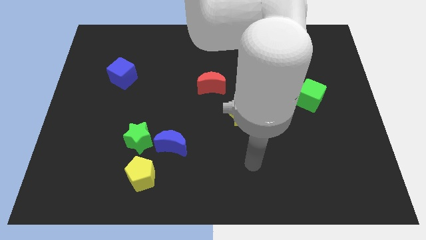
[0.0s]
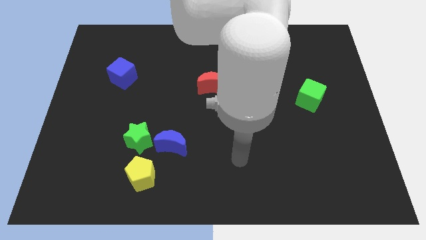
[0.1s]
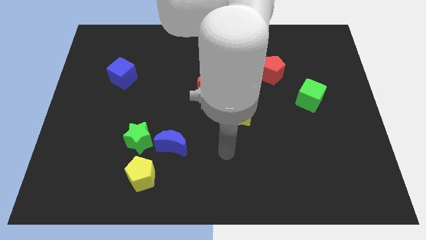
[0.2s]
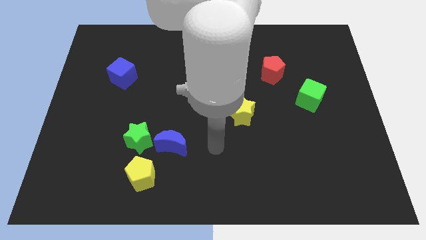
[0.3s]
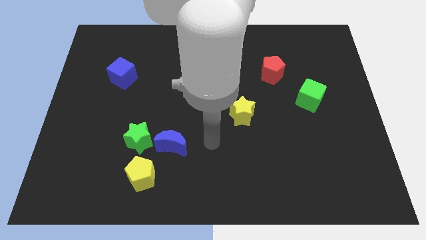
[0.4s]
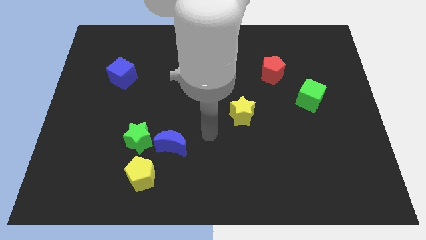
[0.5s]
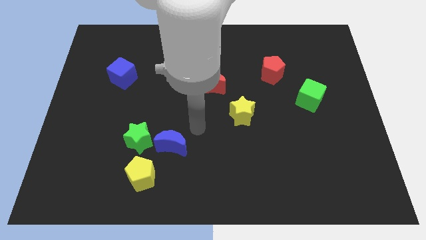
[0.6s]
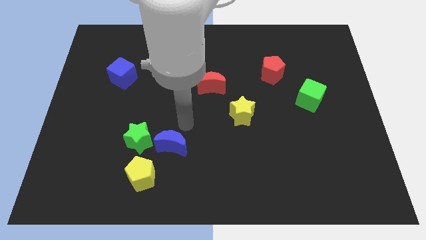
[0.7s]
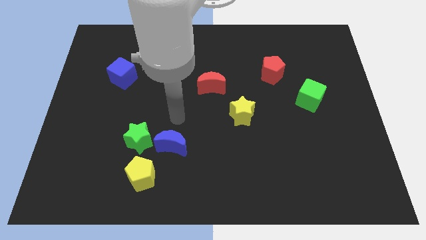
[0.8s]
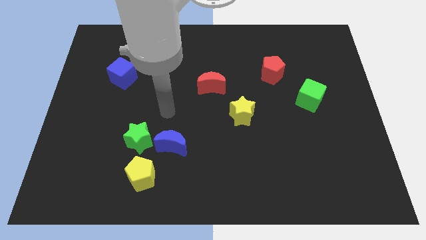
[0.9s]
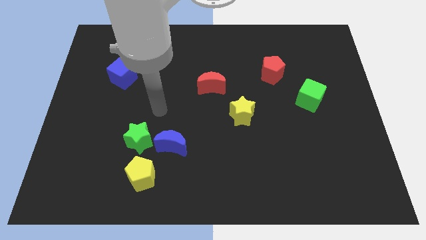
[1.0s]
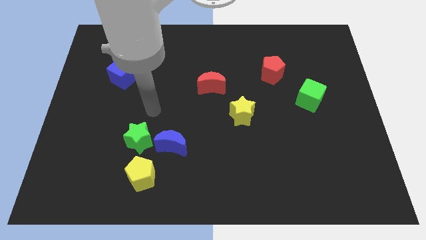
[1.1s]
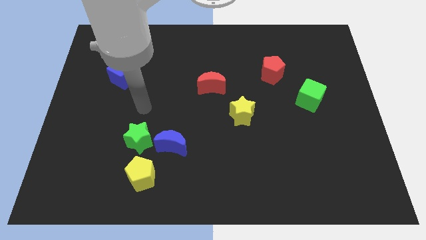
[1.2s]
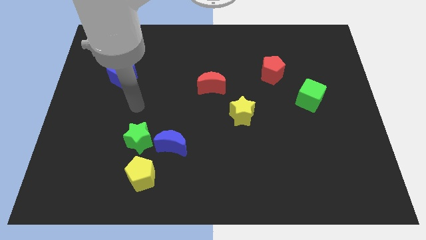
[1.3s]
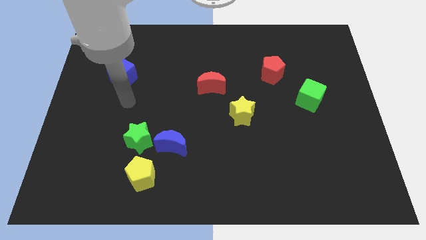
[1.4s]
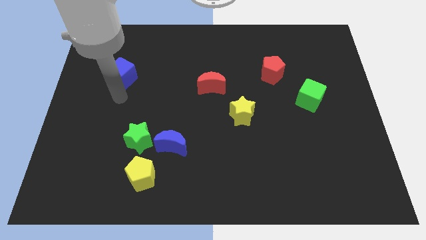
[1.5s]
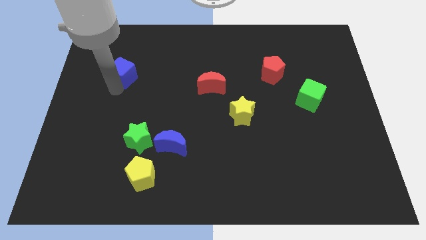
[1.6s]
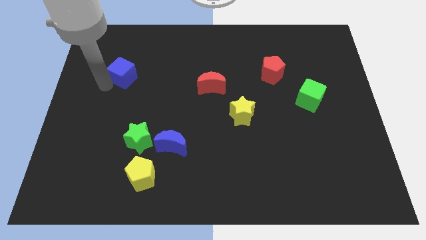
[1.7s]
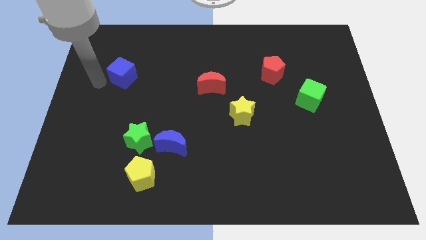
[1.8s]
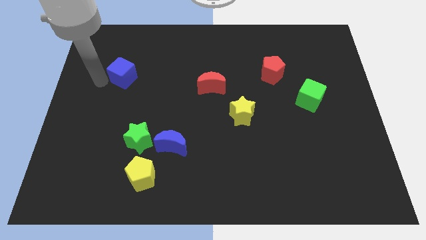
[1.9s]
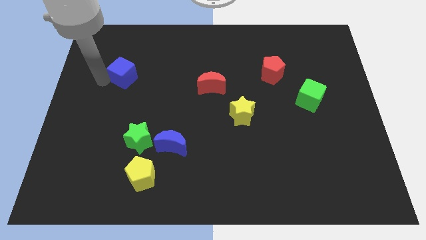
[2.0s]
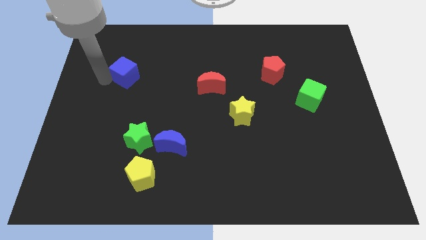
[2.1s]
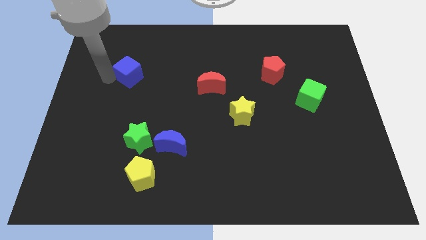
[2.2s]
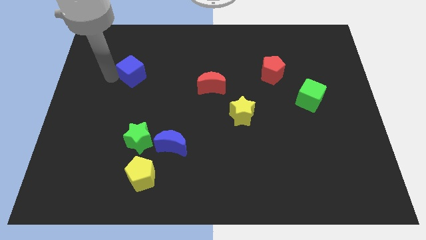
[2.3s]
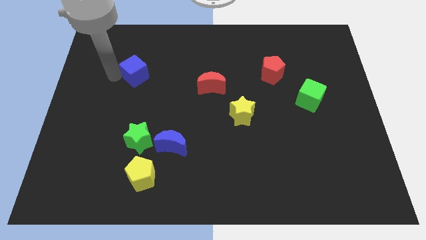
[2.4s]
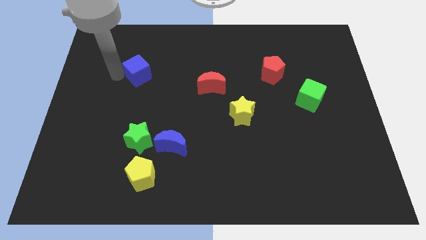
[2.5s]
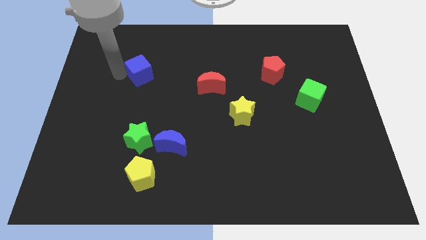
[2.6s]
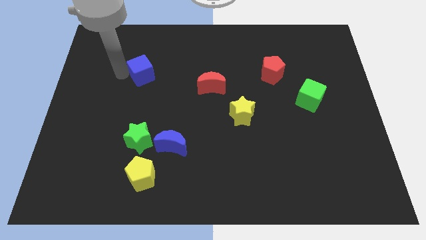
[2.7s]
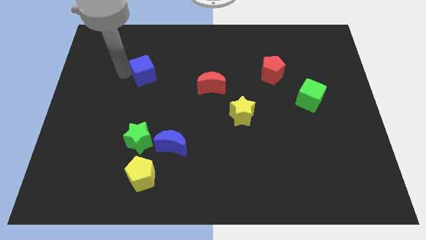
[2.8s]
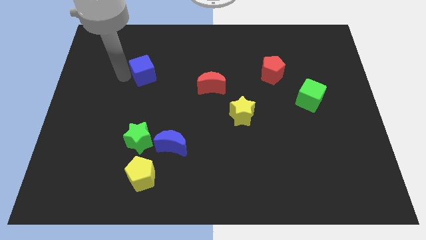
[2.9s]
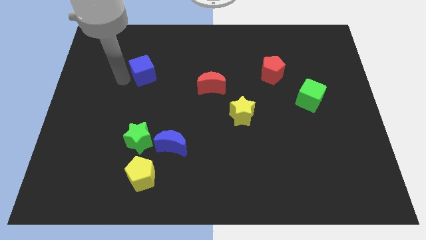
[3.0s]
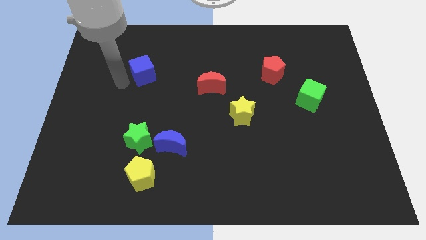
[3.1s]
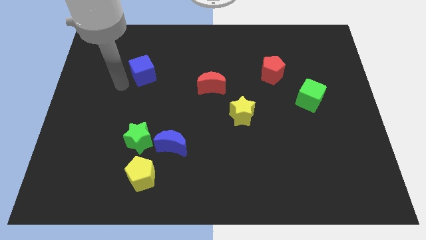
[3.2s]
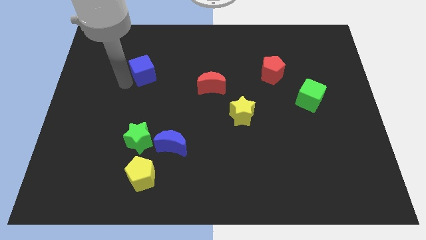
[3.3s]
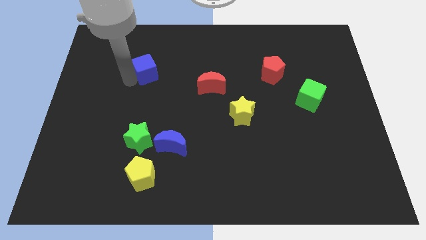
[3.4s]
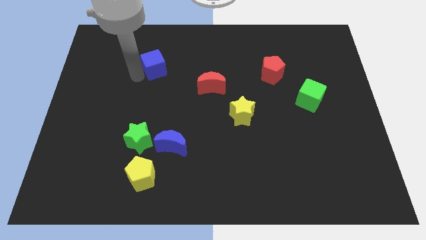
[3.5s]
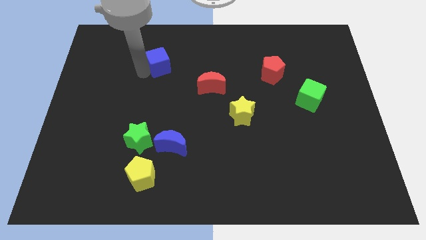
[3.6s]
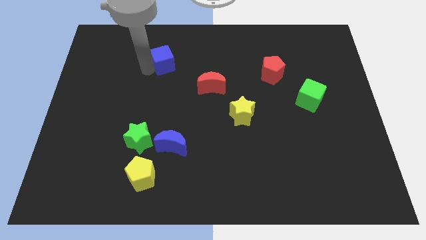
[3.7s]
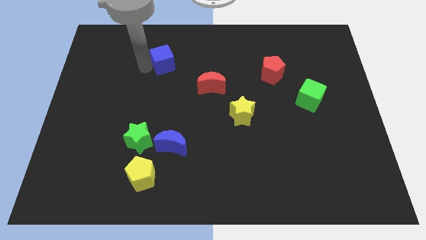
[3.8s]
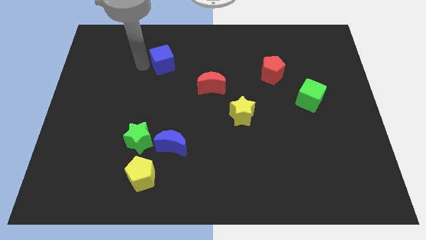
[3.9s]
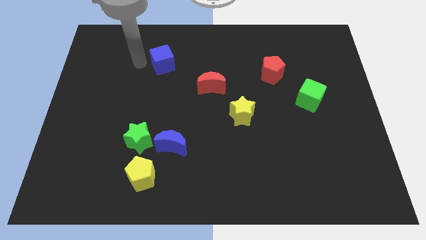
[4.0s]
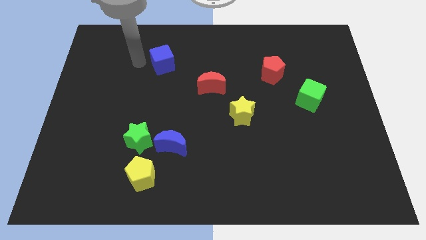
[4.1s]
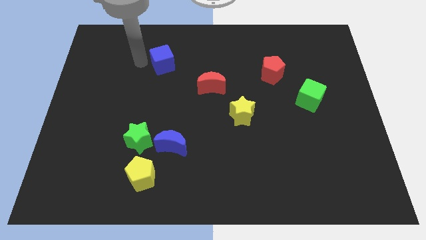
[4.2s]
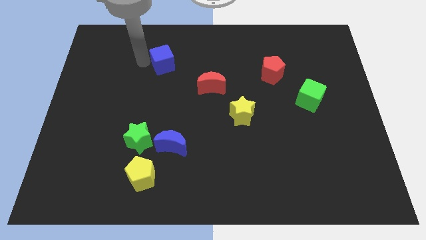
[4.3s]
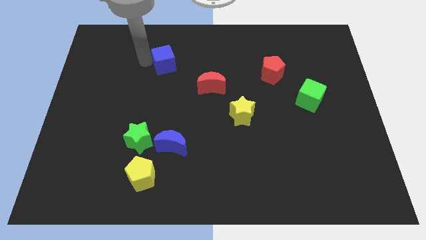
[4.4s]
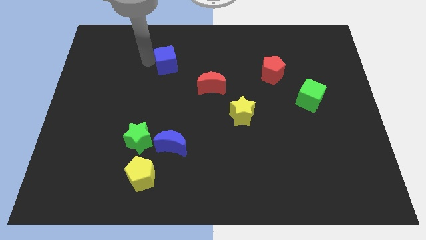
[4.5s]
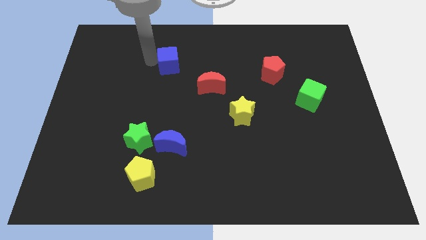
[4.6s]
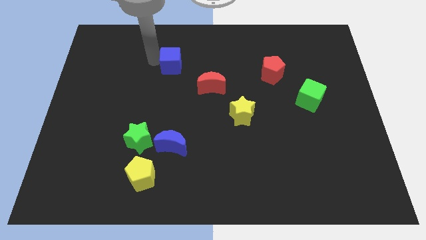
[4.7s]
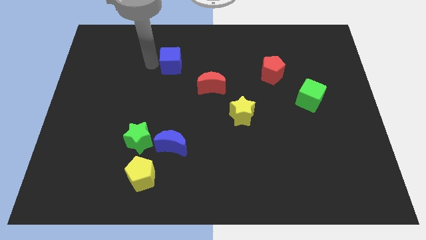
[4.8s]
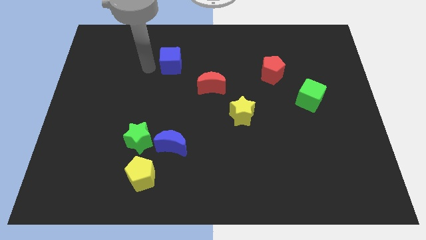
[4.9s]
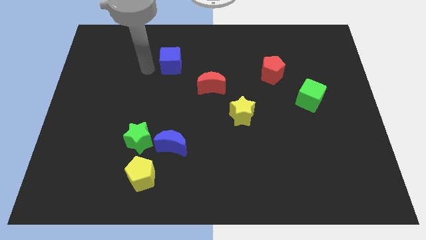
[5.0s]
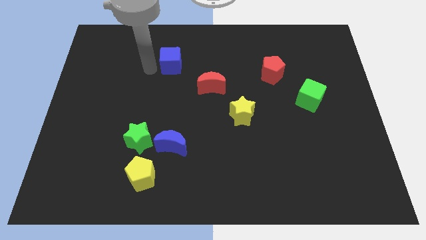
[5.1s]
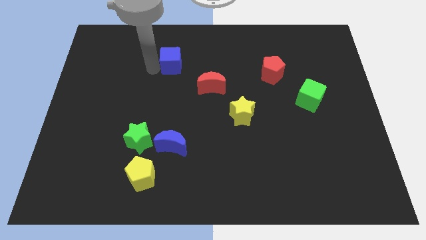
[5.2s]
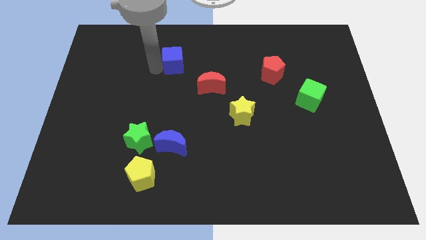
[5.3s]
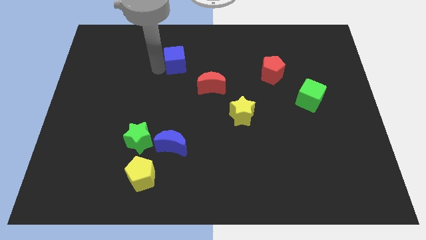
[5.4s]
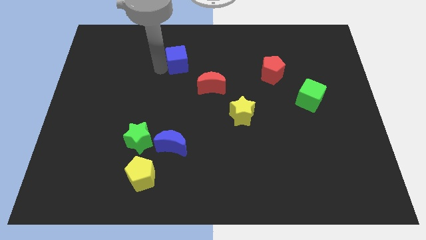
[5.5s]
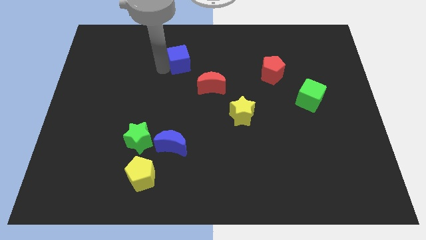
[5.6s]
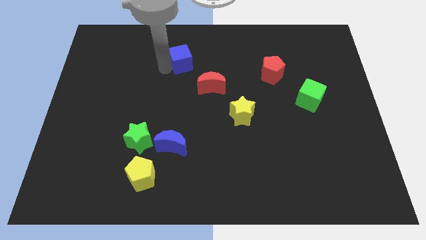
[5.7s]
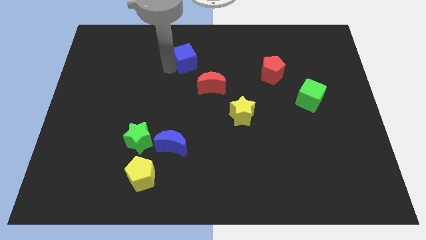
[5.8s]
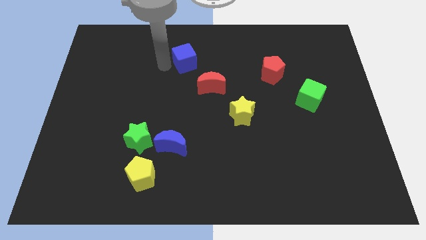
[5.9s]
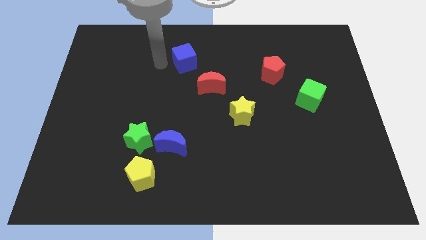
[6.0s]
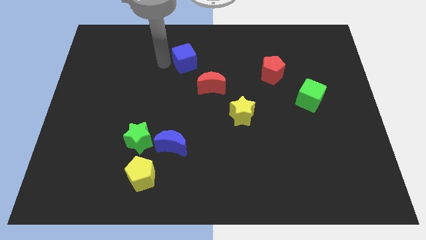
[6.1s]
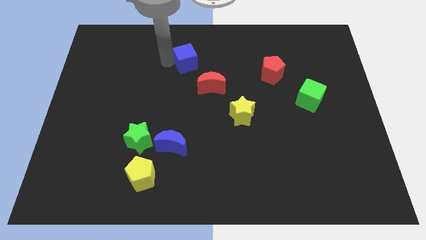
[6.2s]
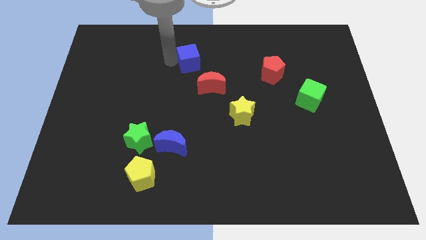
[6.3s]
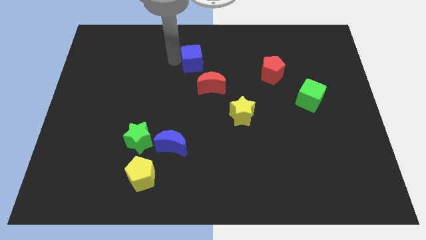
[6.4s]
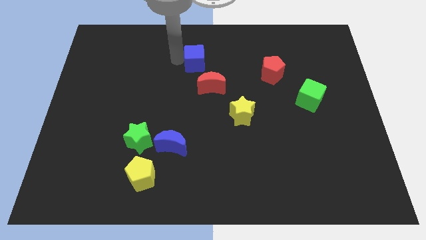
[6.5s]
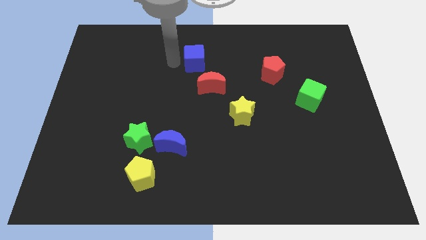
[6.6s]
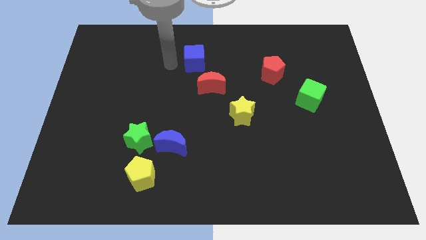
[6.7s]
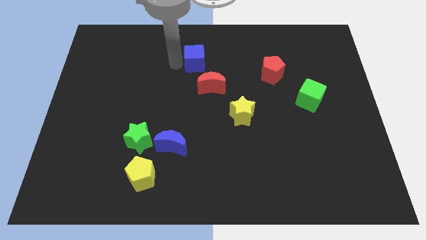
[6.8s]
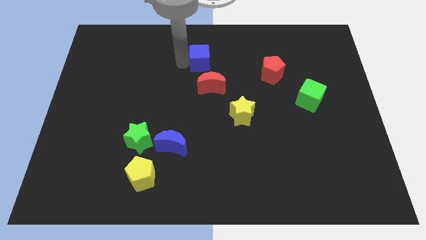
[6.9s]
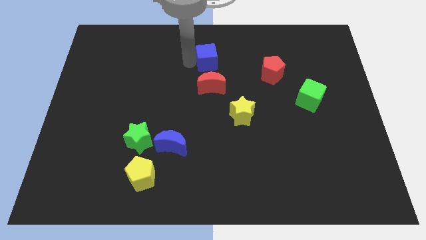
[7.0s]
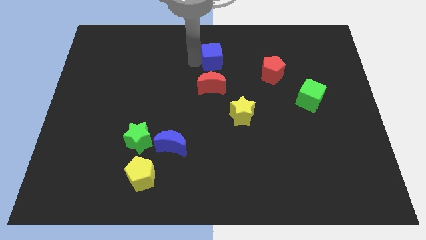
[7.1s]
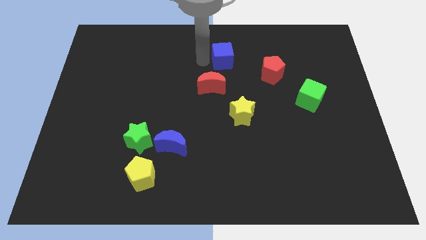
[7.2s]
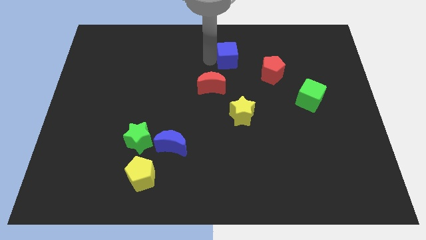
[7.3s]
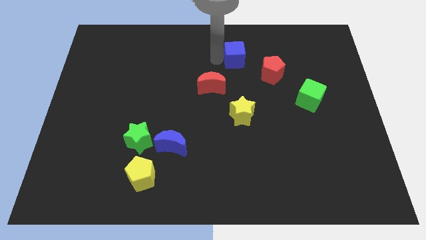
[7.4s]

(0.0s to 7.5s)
put the blue cube to the top left of the red pentagon
